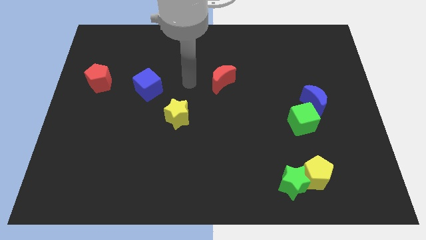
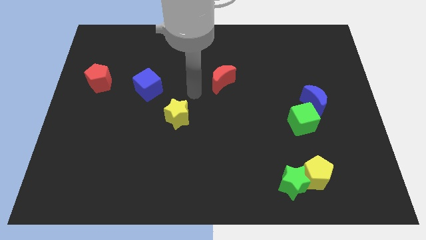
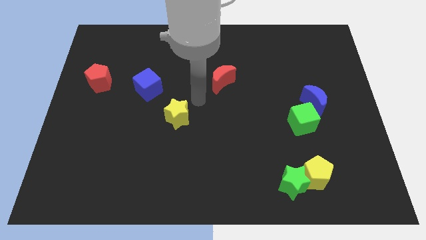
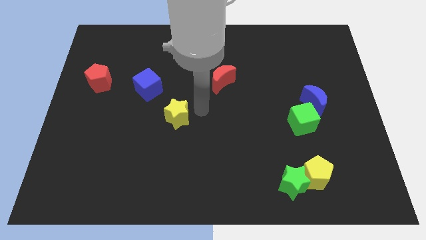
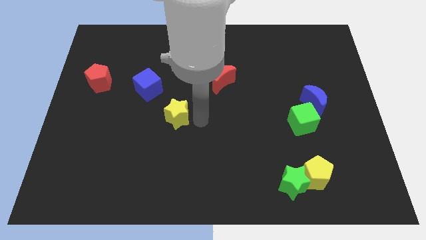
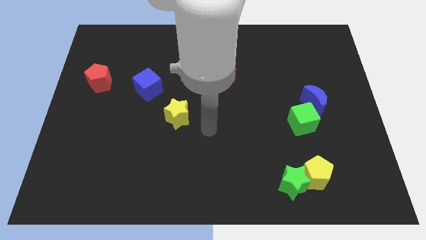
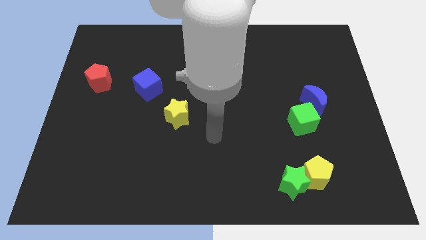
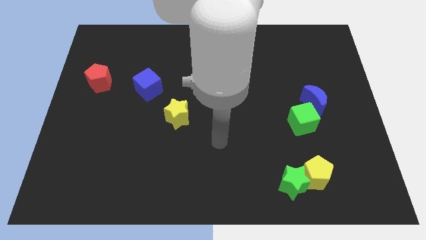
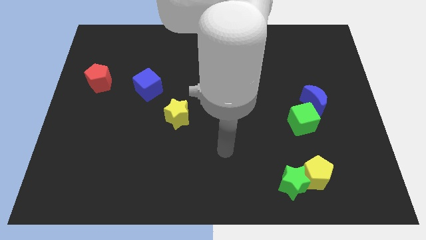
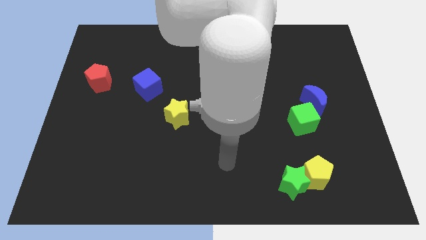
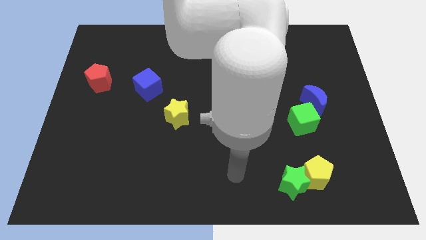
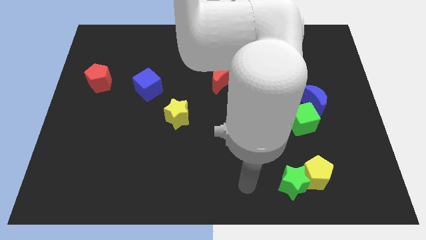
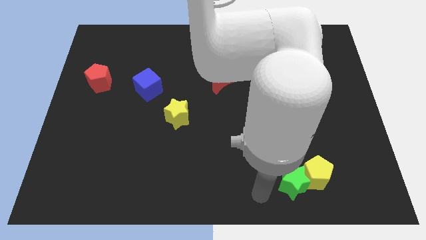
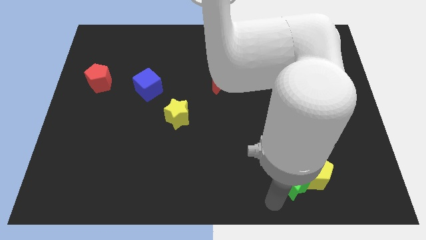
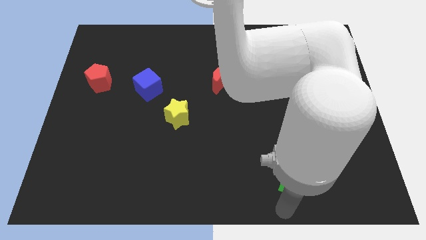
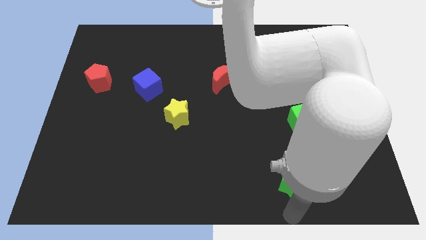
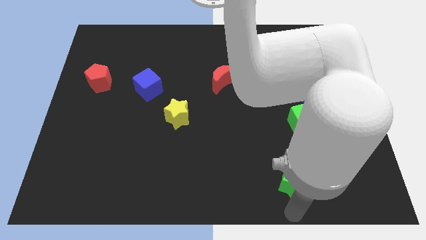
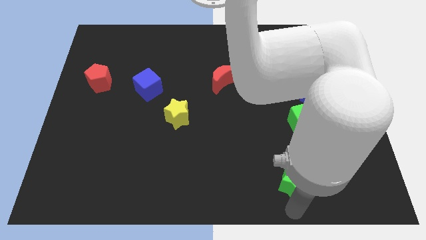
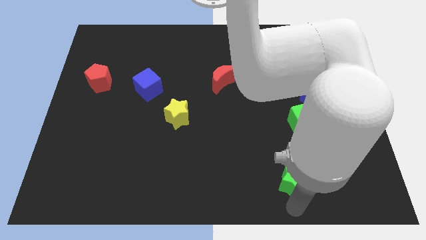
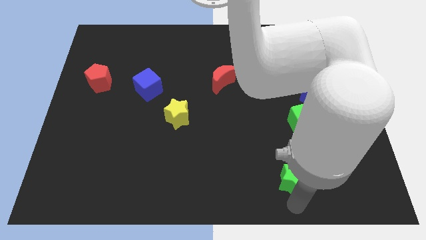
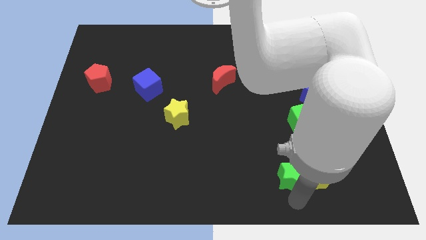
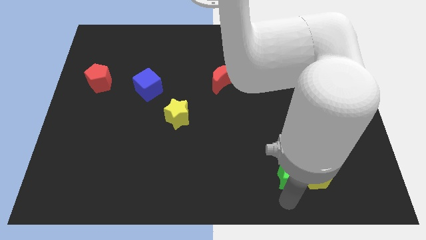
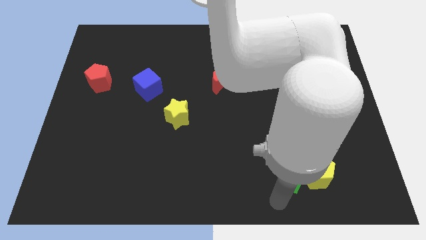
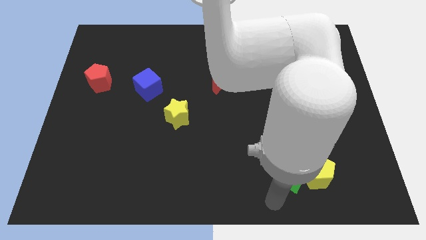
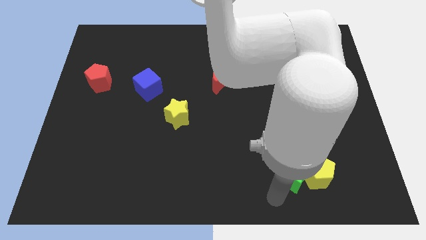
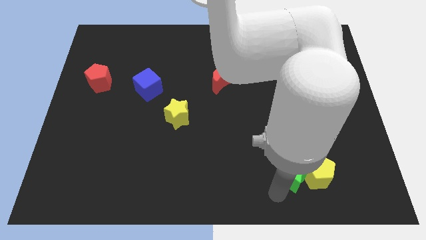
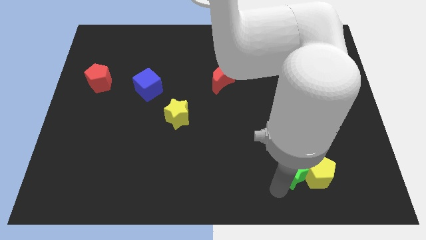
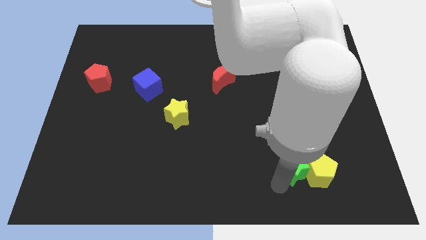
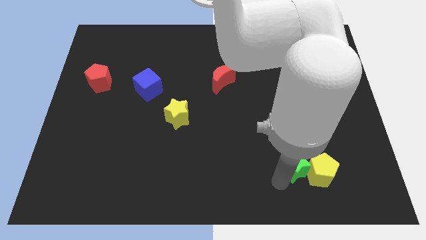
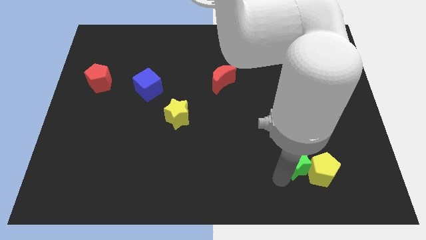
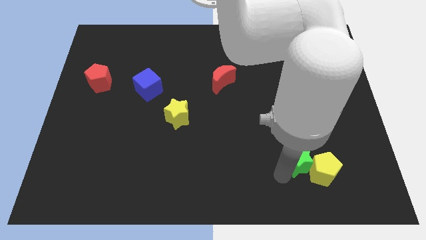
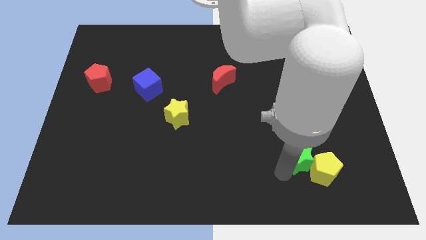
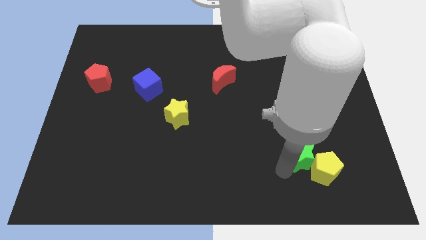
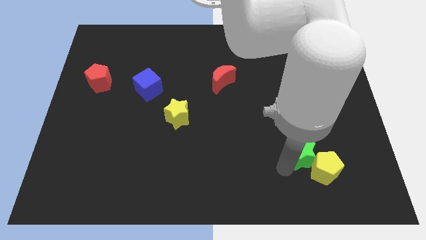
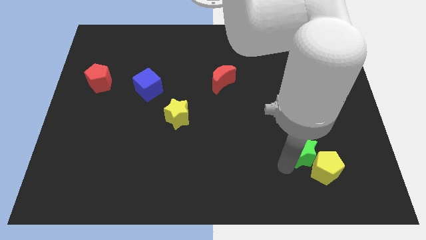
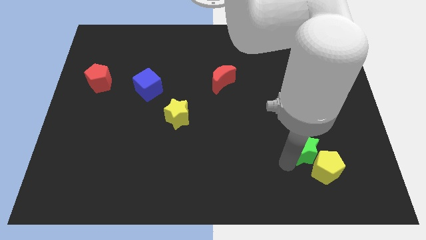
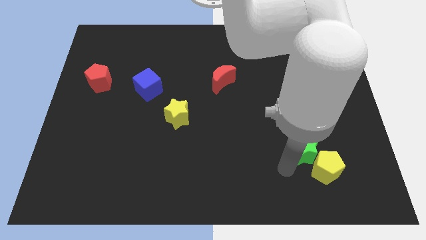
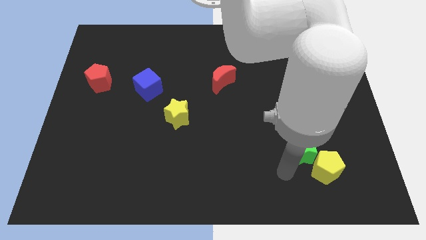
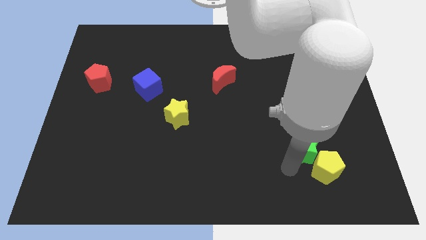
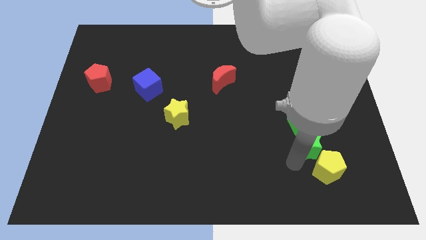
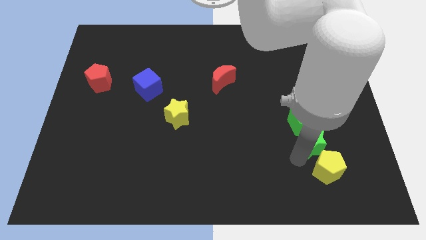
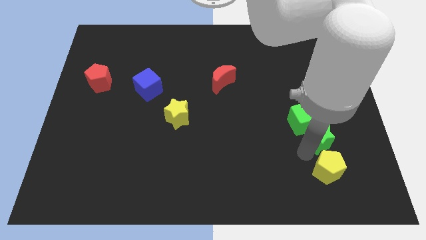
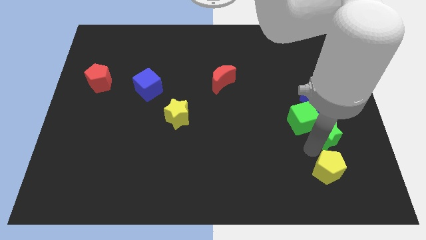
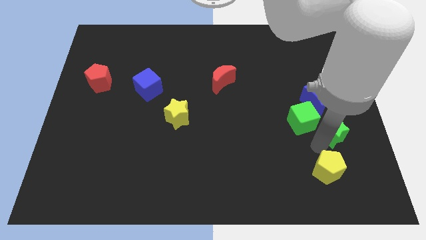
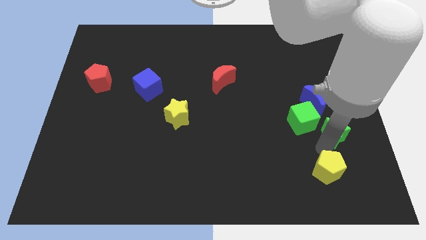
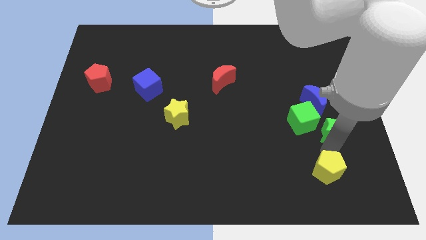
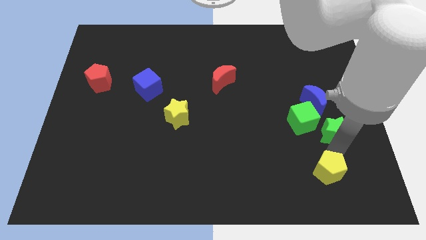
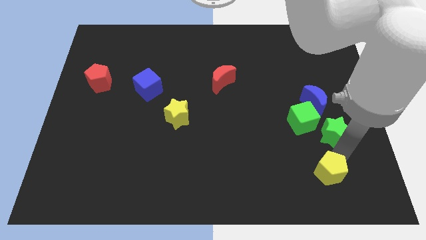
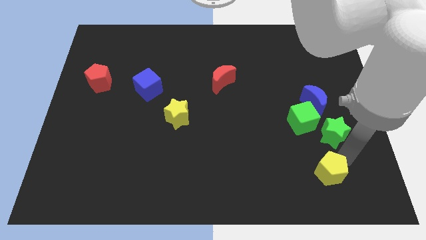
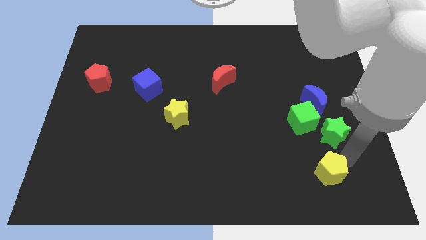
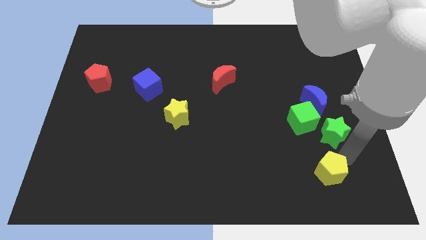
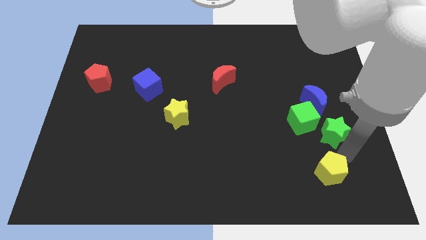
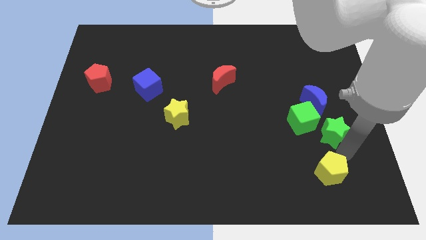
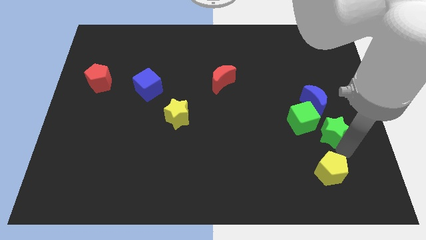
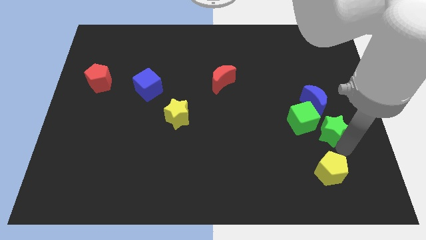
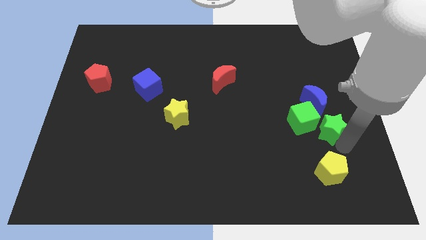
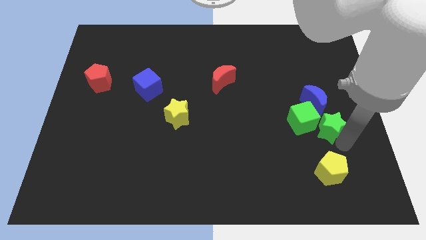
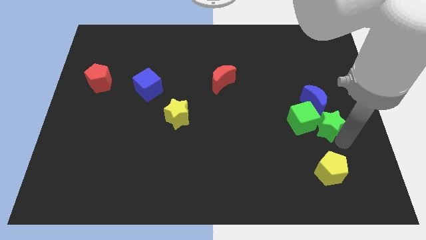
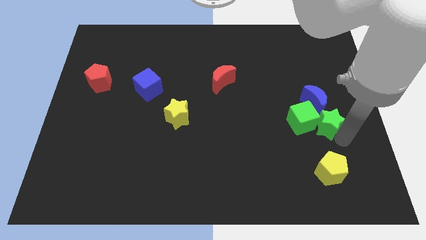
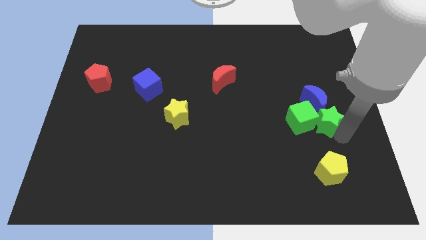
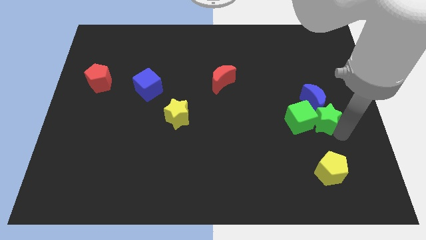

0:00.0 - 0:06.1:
move the green star to the blue moon

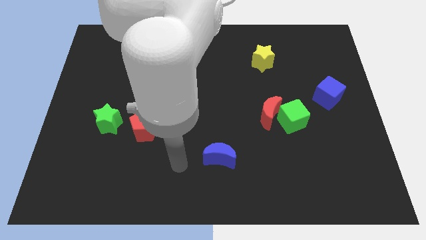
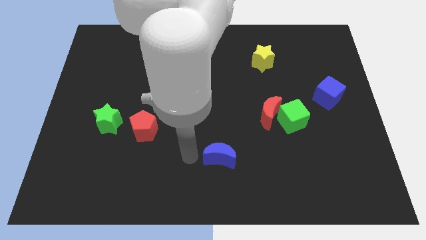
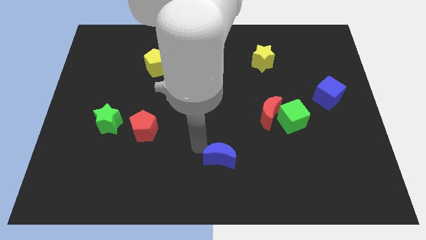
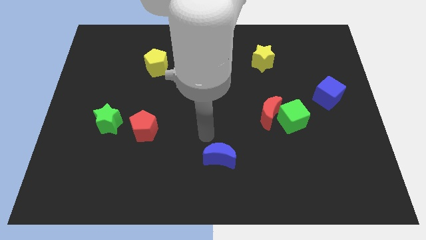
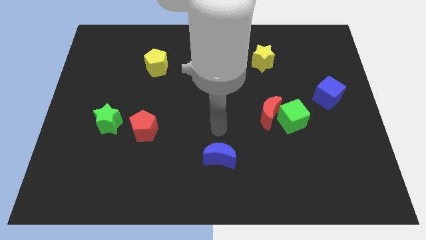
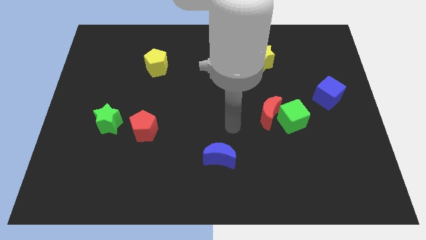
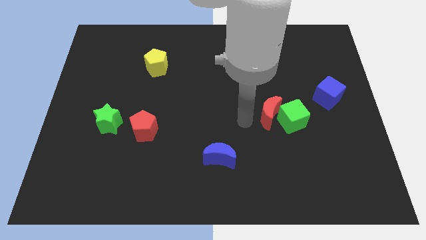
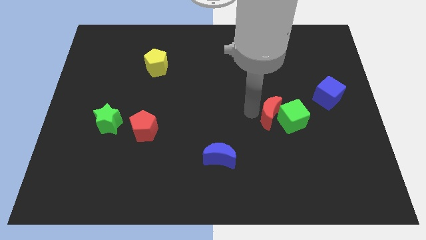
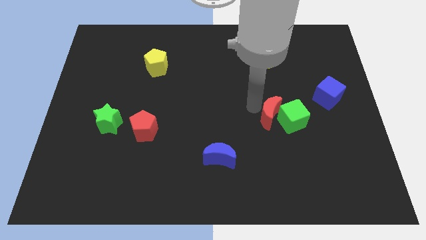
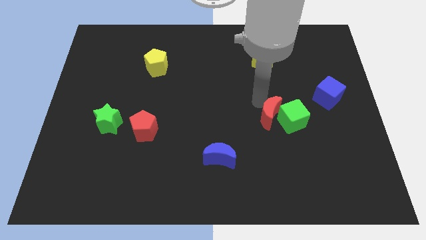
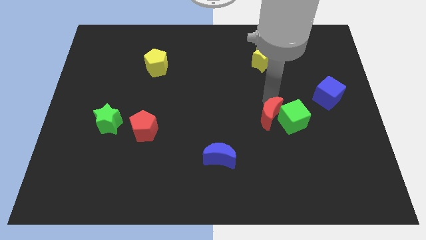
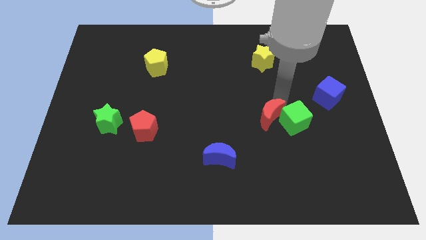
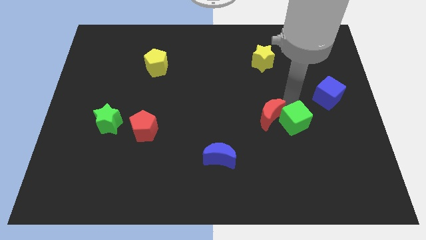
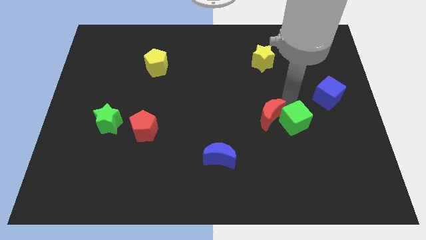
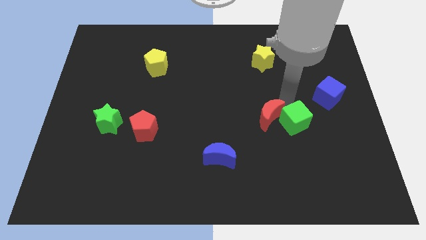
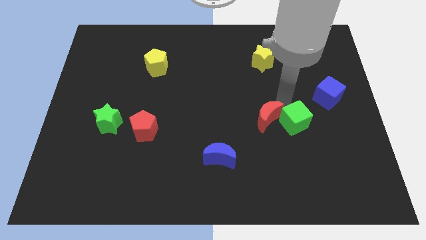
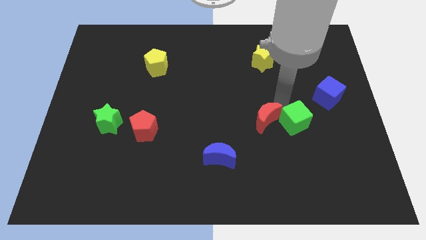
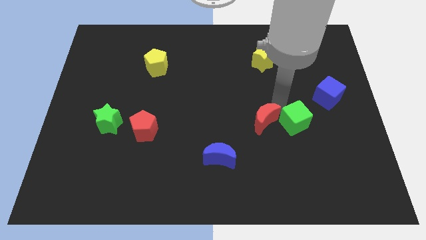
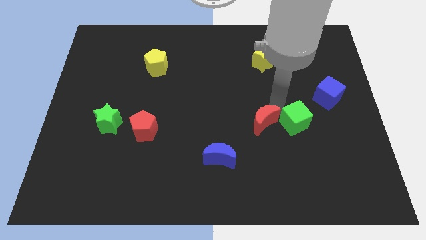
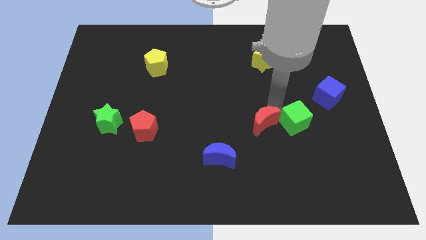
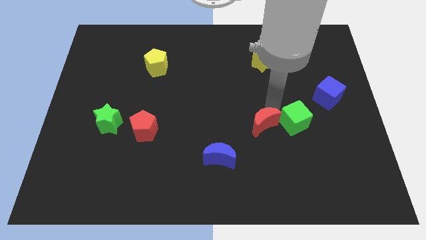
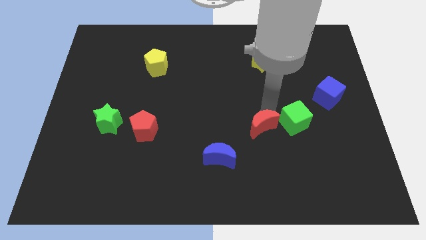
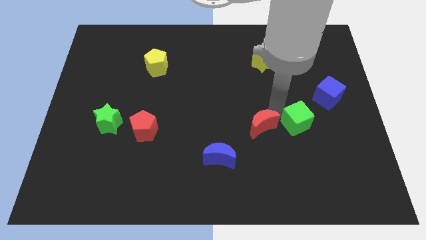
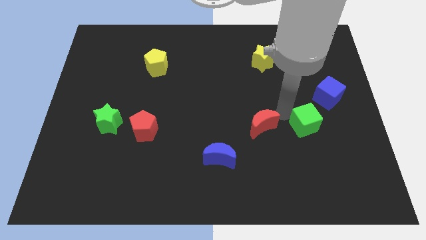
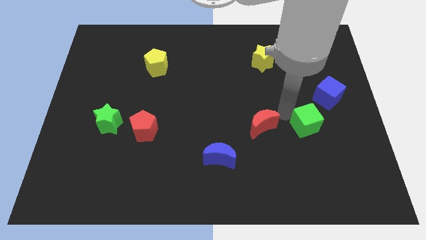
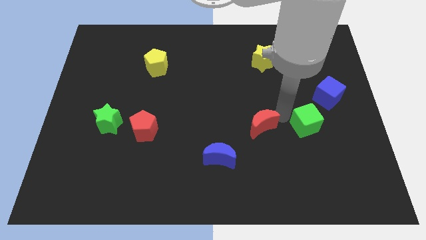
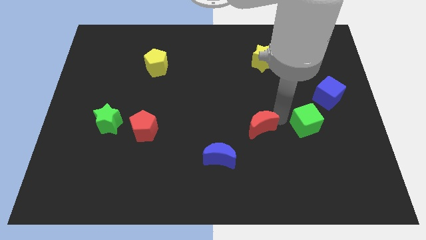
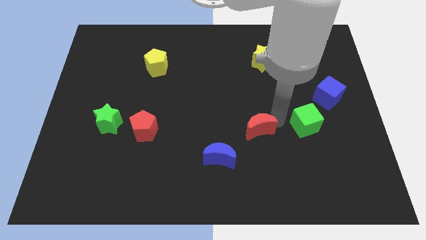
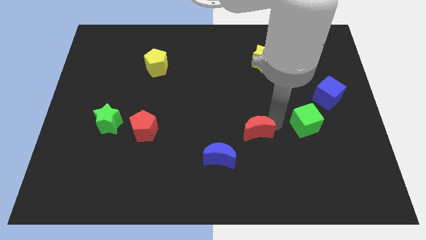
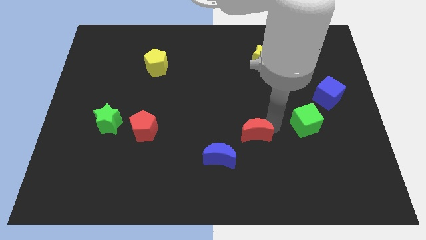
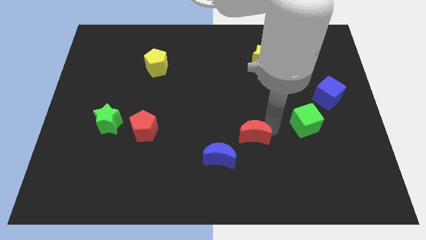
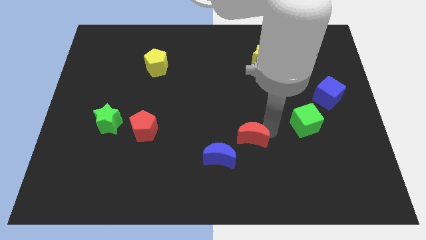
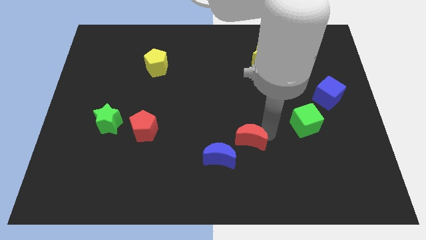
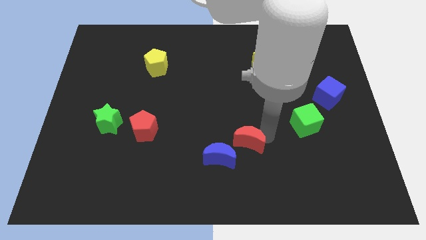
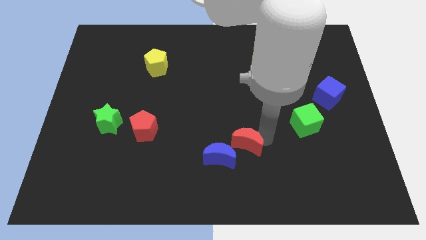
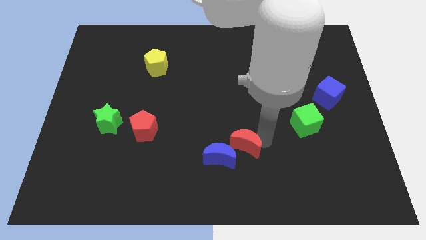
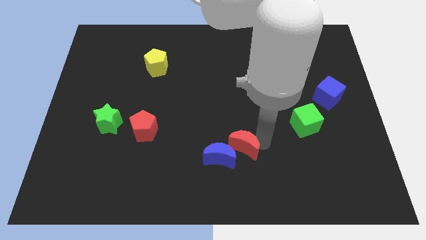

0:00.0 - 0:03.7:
move the red moon close to the blue moon
